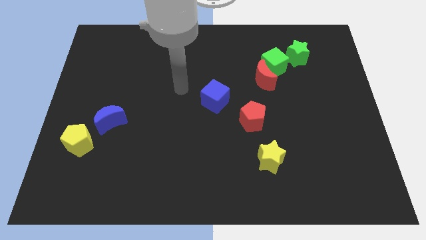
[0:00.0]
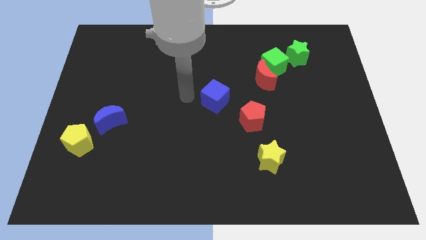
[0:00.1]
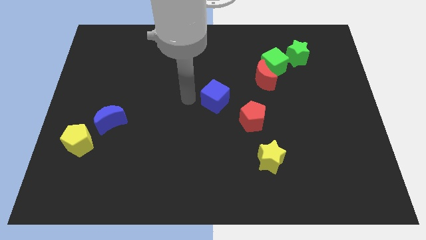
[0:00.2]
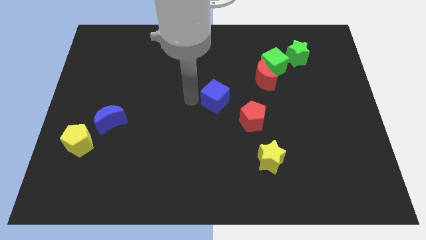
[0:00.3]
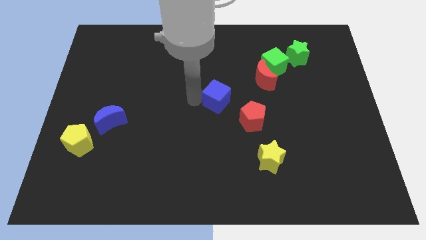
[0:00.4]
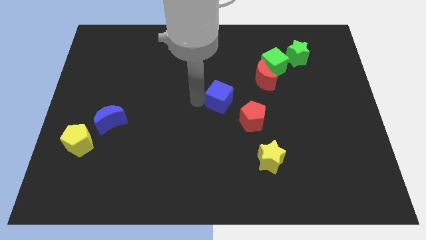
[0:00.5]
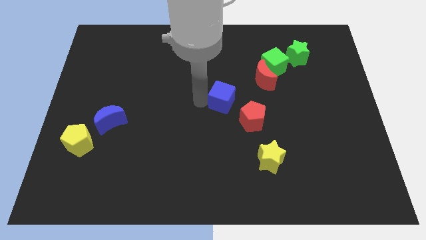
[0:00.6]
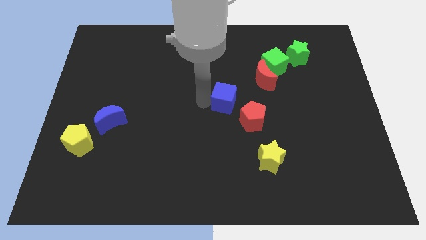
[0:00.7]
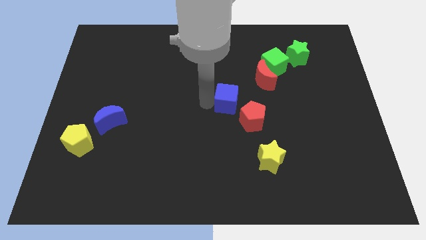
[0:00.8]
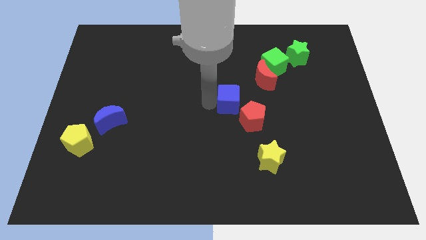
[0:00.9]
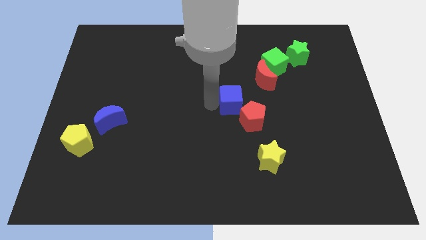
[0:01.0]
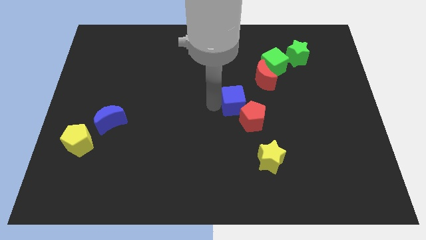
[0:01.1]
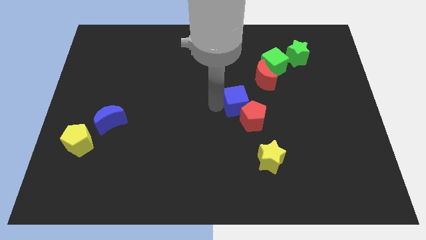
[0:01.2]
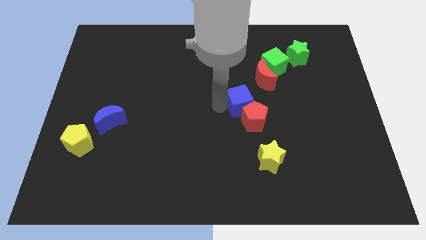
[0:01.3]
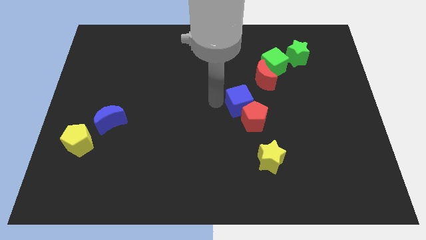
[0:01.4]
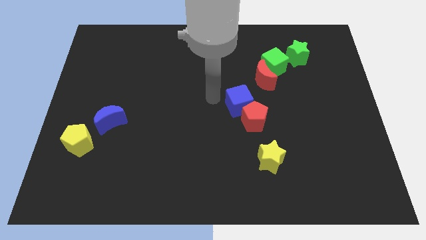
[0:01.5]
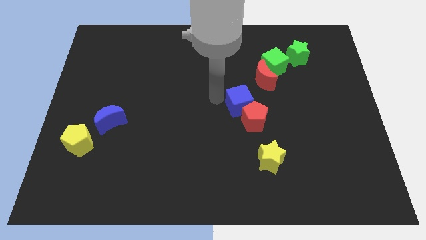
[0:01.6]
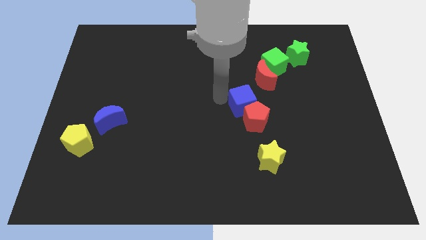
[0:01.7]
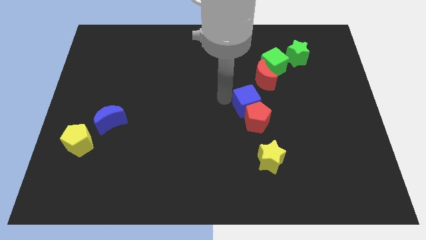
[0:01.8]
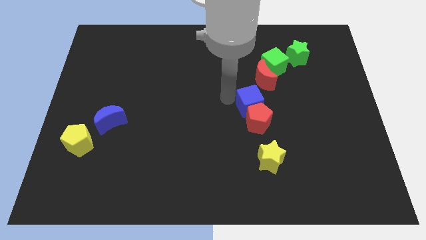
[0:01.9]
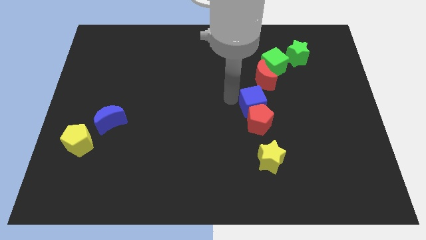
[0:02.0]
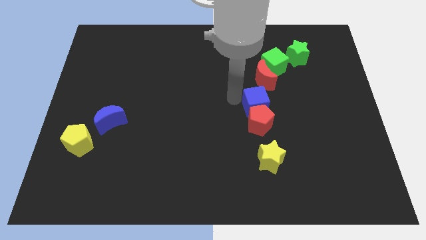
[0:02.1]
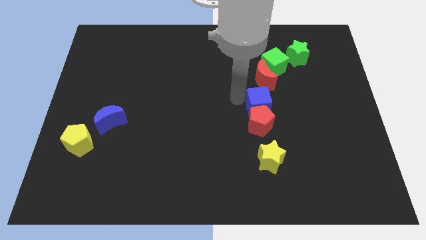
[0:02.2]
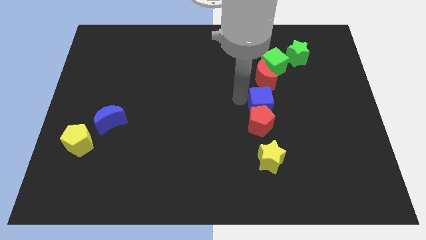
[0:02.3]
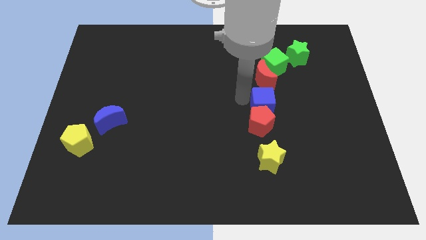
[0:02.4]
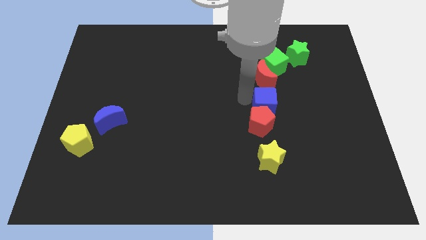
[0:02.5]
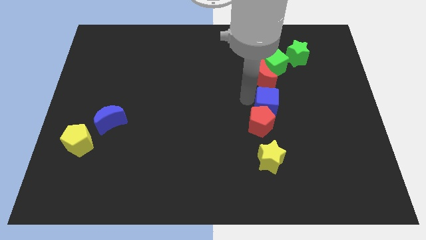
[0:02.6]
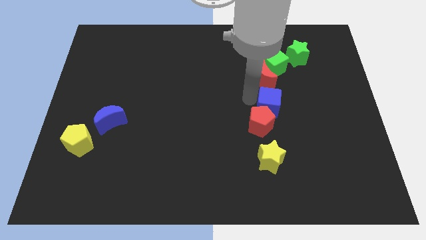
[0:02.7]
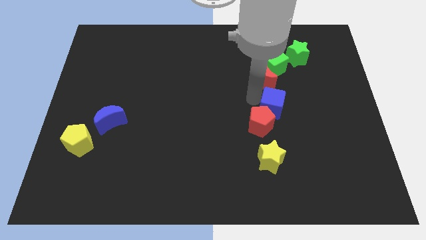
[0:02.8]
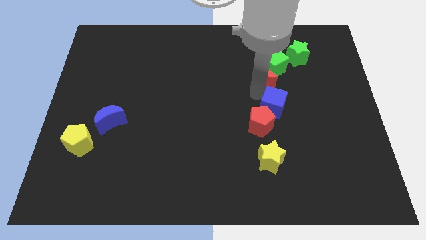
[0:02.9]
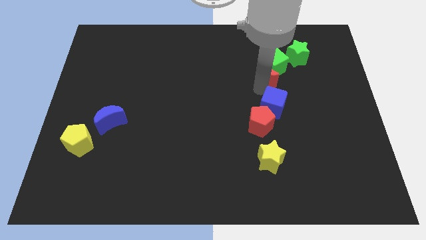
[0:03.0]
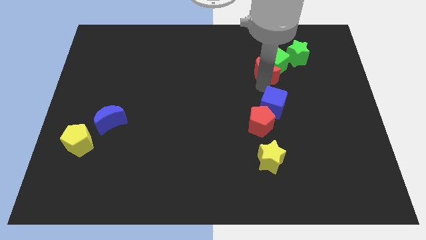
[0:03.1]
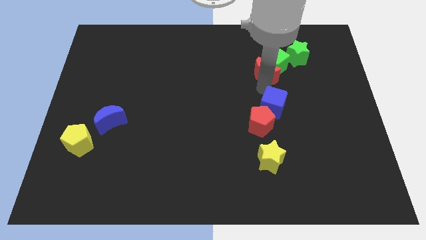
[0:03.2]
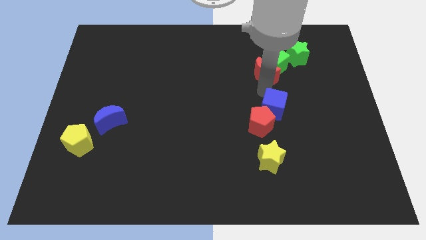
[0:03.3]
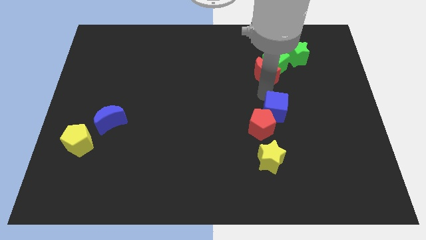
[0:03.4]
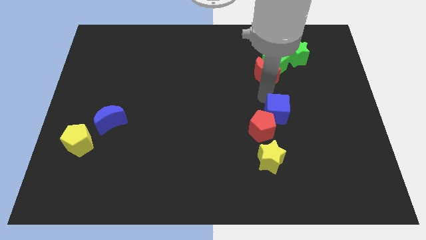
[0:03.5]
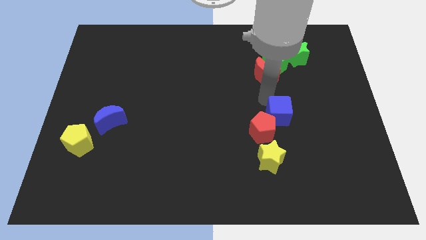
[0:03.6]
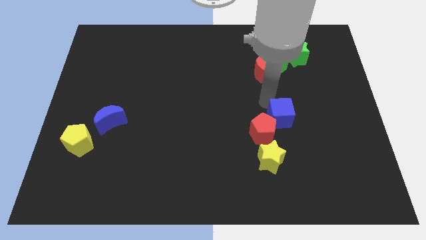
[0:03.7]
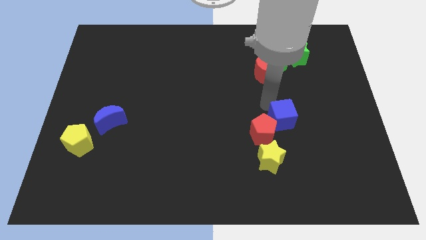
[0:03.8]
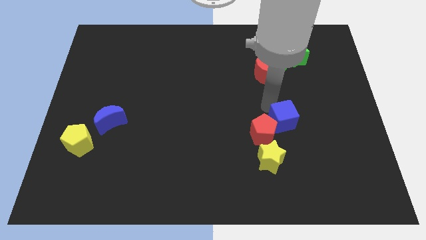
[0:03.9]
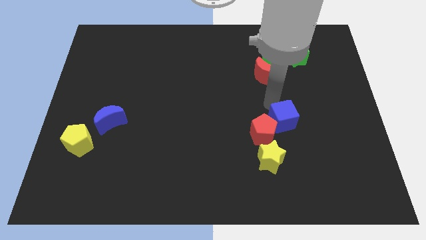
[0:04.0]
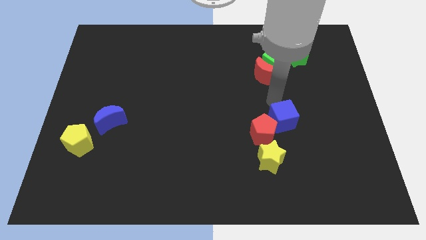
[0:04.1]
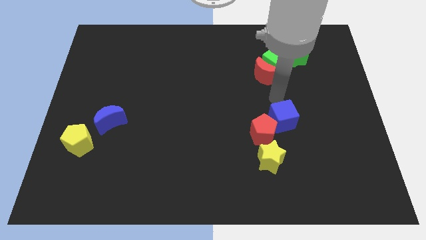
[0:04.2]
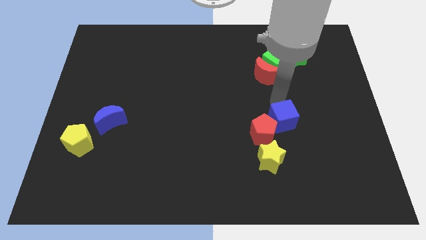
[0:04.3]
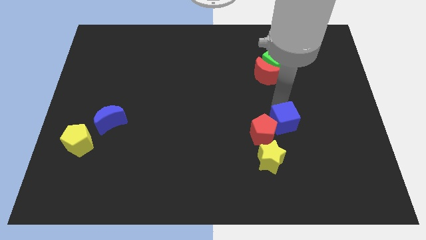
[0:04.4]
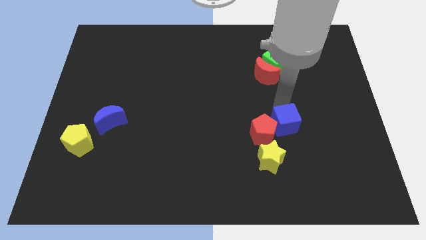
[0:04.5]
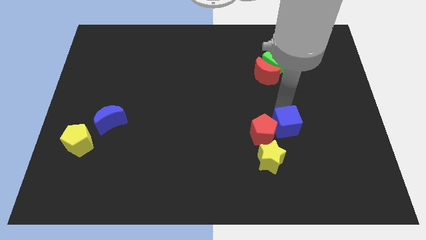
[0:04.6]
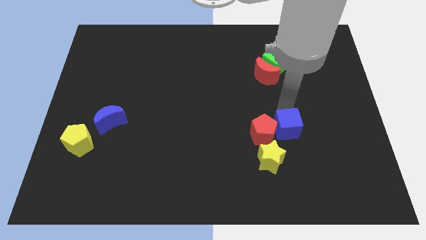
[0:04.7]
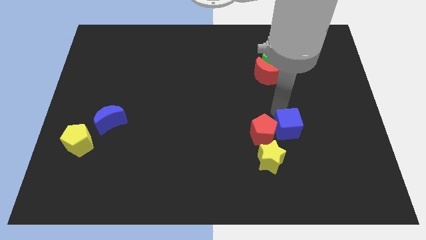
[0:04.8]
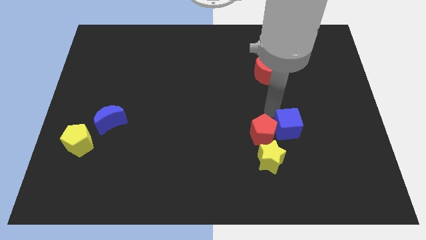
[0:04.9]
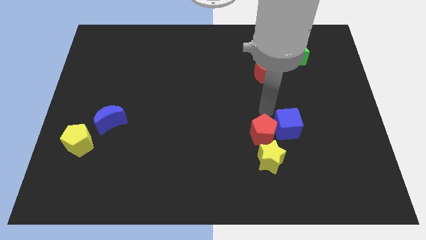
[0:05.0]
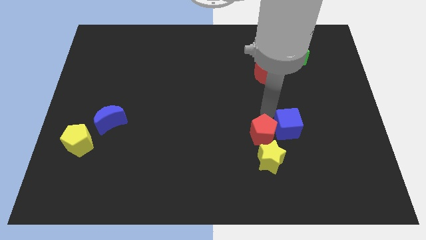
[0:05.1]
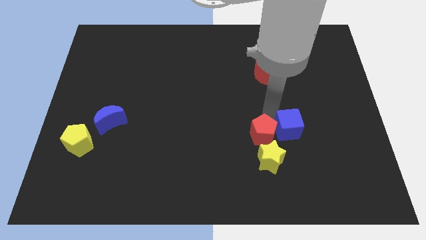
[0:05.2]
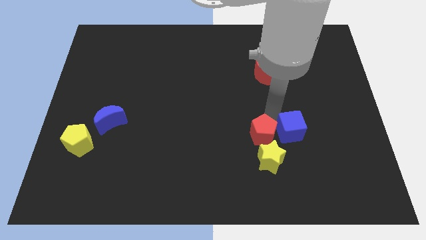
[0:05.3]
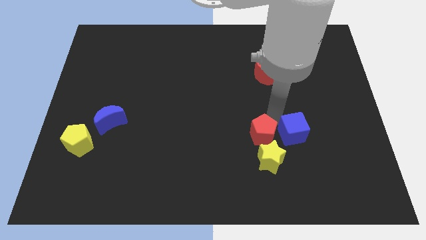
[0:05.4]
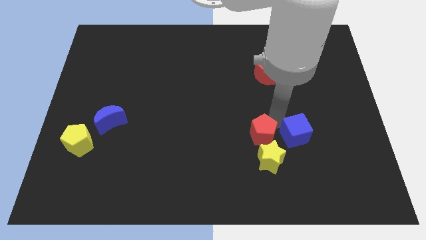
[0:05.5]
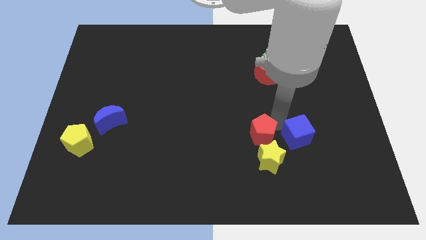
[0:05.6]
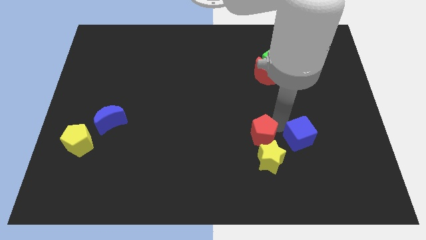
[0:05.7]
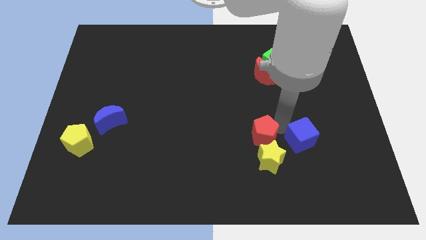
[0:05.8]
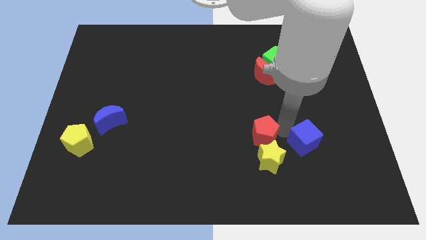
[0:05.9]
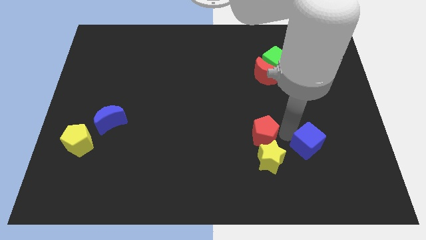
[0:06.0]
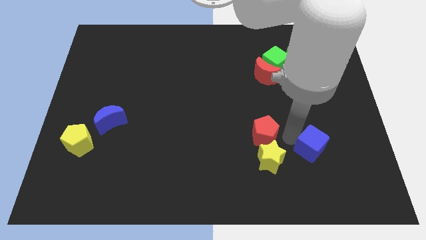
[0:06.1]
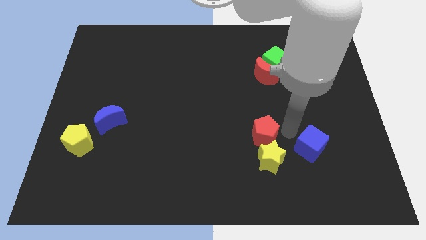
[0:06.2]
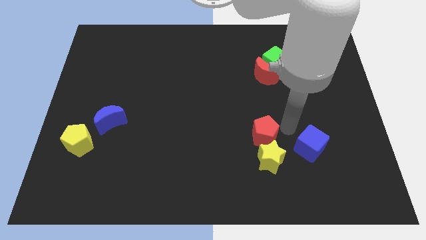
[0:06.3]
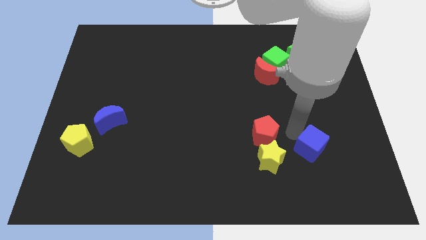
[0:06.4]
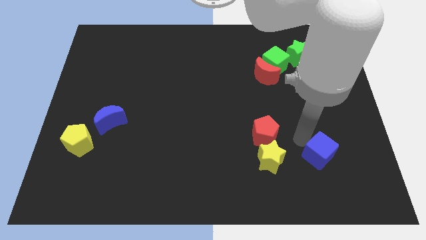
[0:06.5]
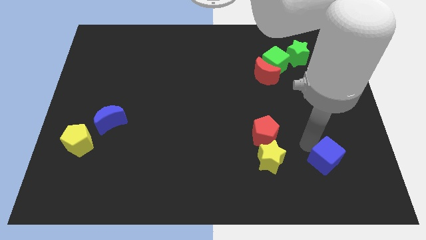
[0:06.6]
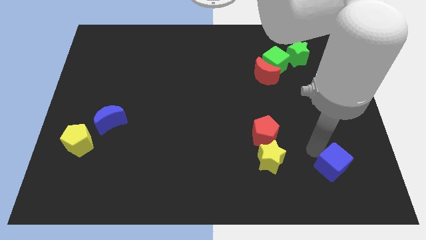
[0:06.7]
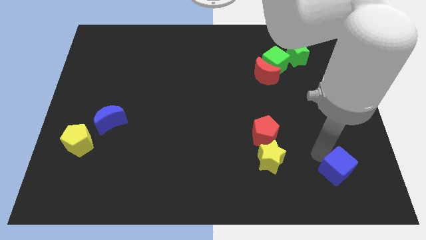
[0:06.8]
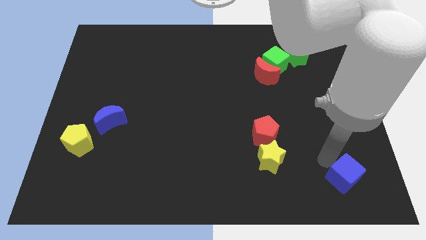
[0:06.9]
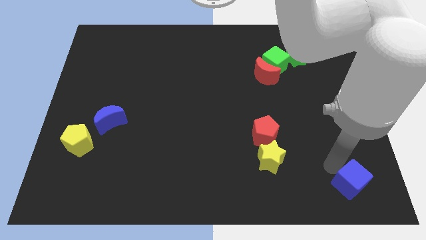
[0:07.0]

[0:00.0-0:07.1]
push the blue cube to the lower right corner
